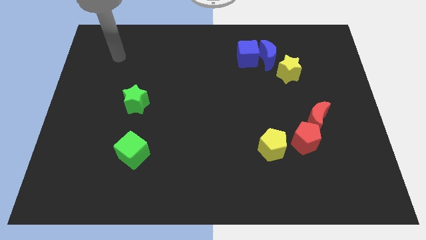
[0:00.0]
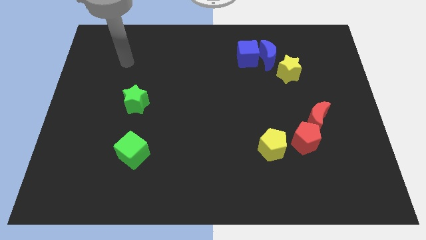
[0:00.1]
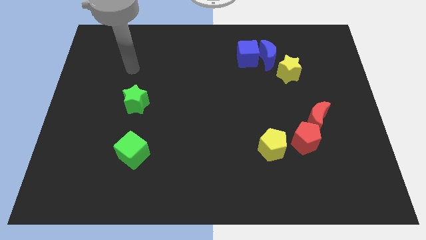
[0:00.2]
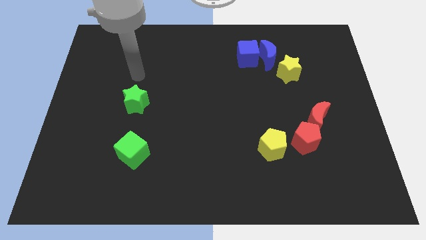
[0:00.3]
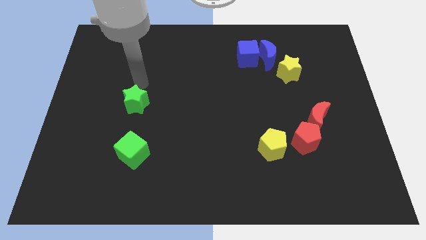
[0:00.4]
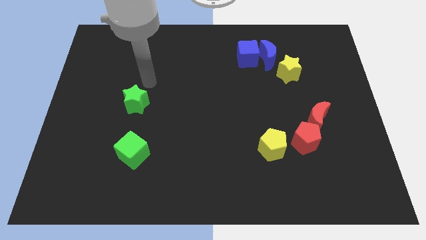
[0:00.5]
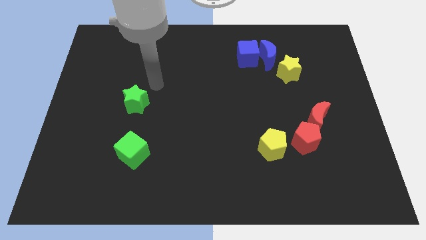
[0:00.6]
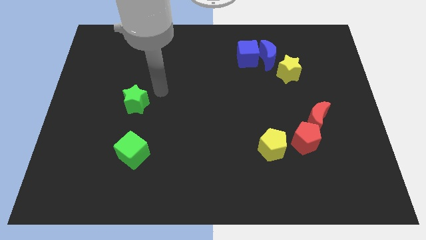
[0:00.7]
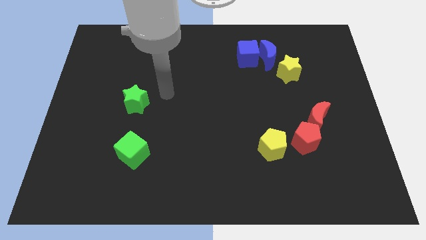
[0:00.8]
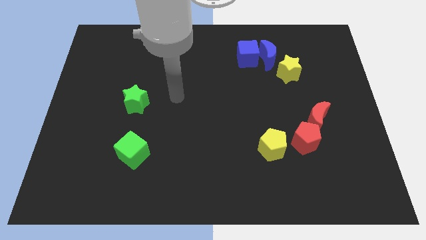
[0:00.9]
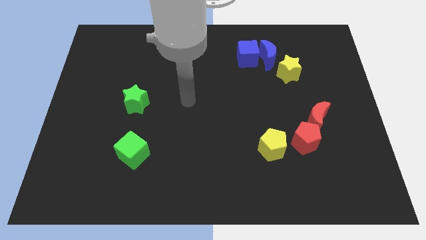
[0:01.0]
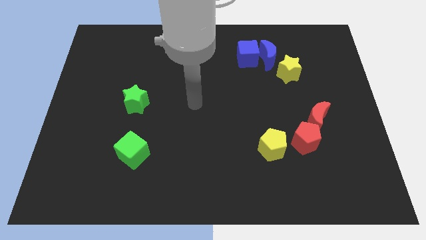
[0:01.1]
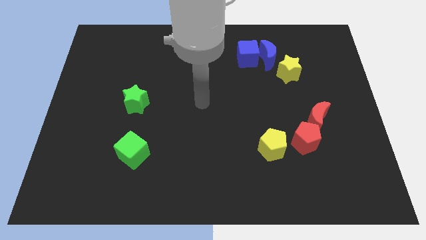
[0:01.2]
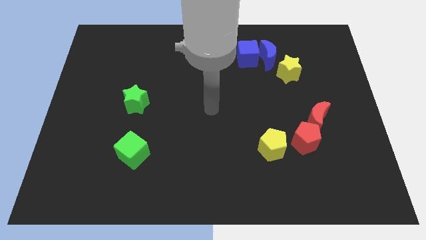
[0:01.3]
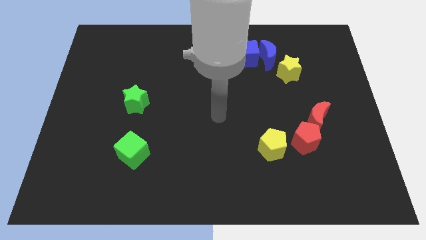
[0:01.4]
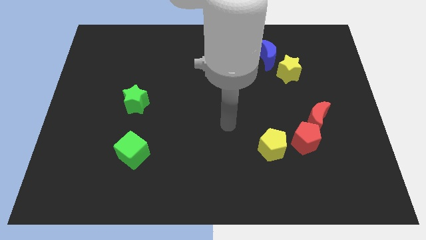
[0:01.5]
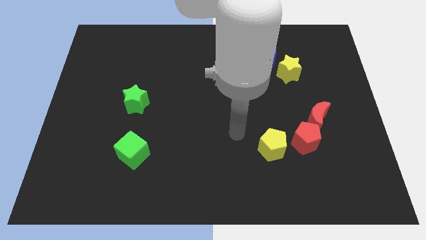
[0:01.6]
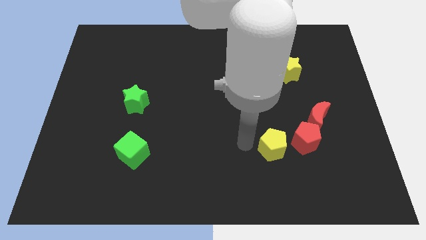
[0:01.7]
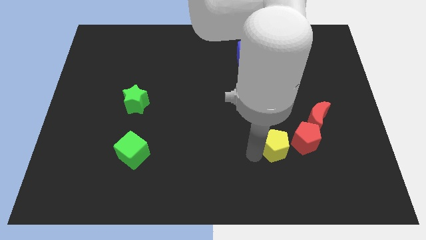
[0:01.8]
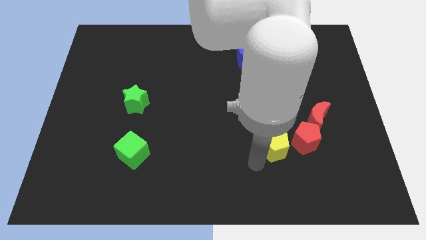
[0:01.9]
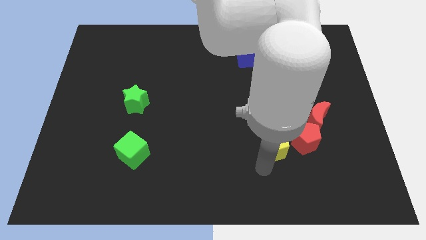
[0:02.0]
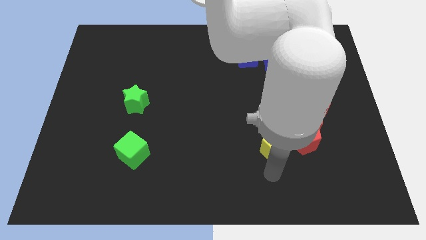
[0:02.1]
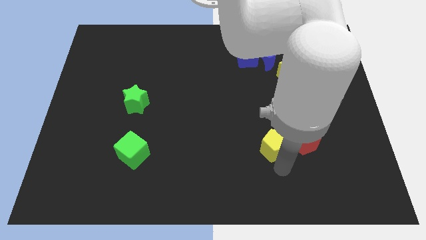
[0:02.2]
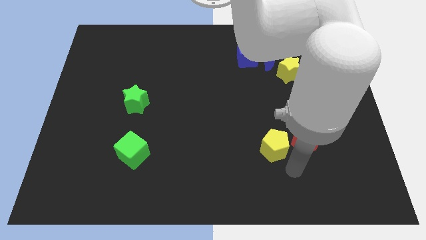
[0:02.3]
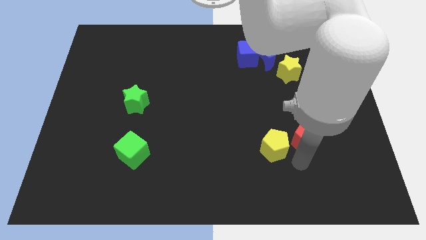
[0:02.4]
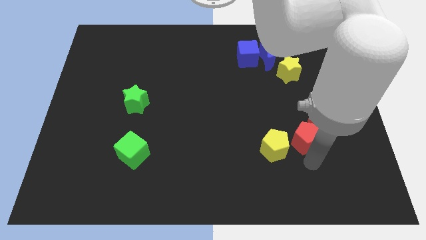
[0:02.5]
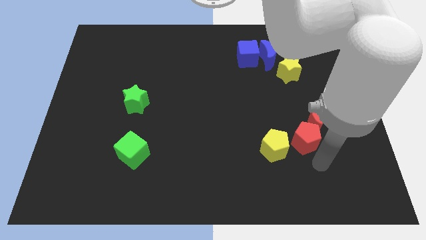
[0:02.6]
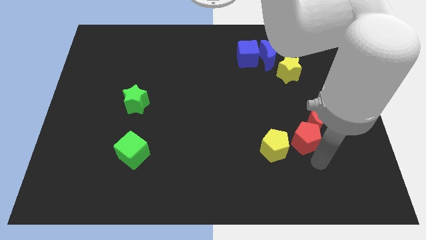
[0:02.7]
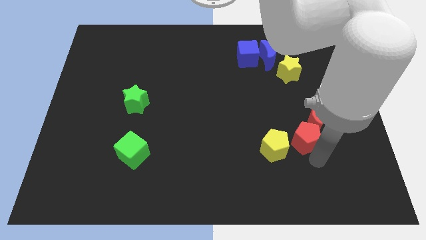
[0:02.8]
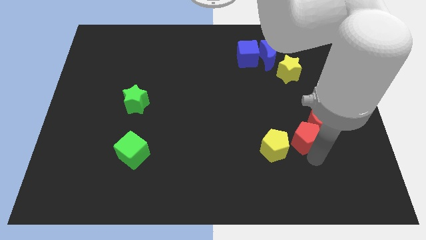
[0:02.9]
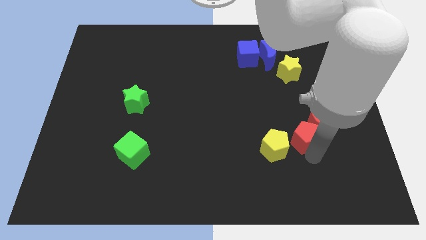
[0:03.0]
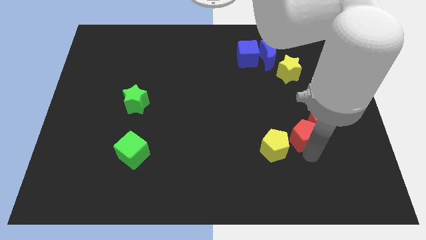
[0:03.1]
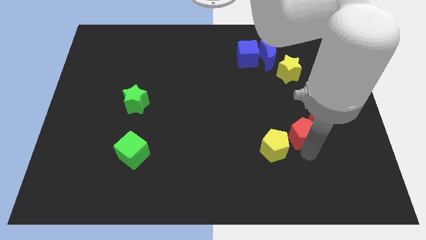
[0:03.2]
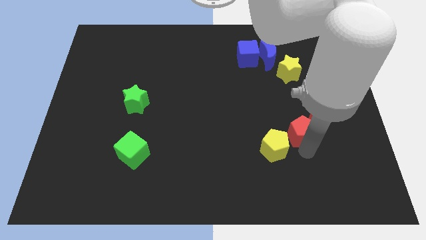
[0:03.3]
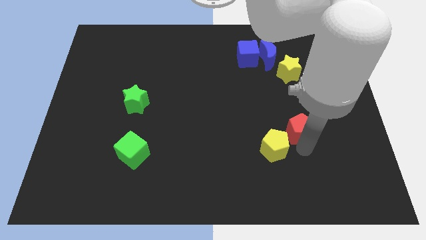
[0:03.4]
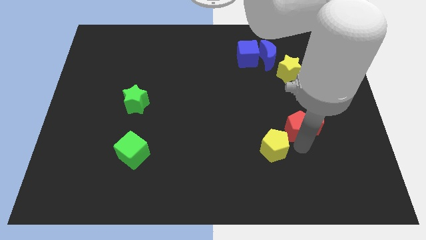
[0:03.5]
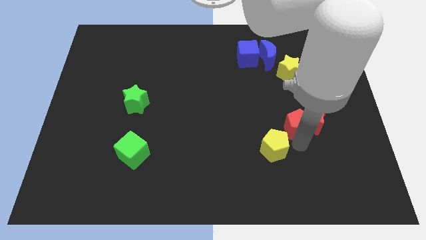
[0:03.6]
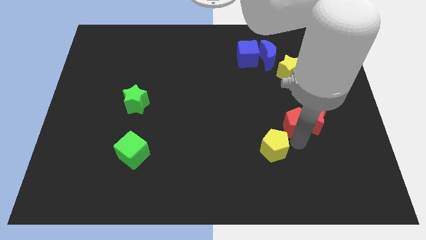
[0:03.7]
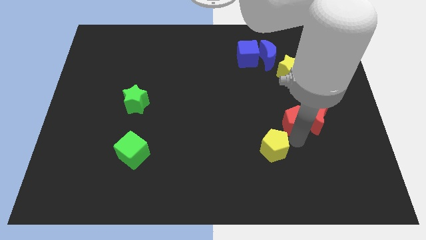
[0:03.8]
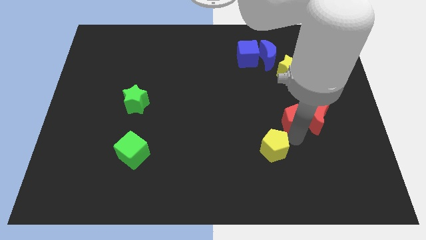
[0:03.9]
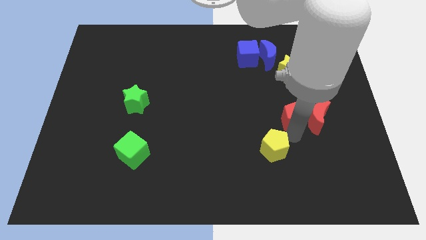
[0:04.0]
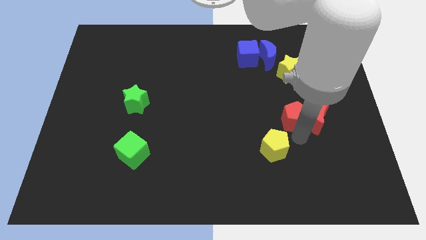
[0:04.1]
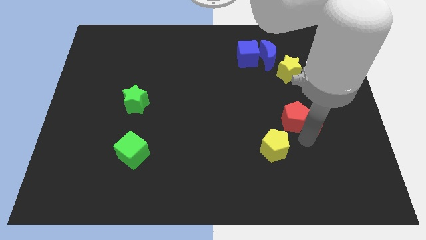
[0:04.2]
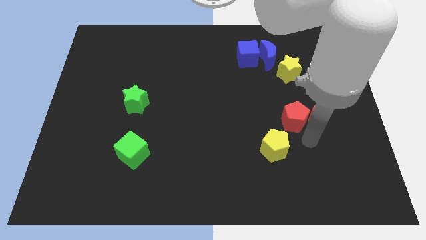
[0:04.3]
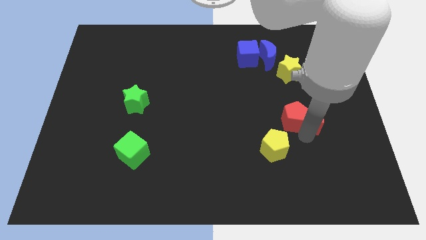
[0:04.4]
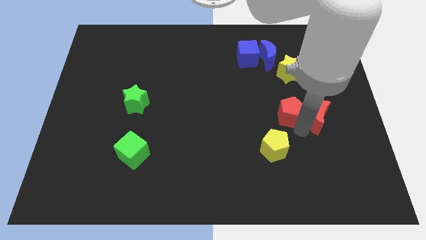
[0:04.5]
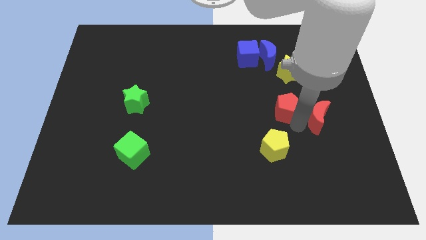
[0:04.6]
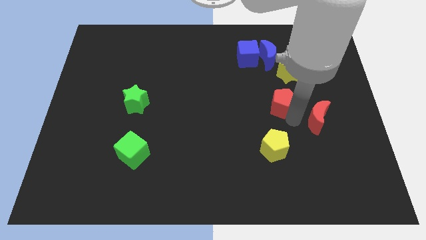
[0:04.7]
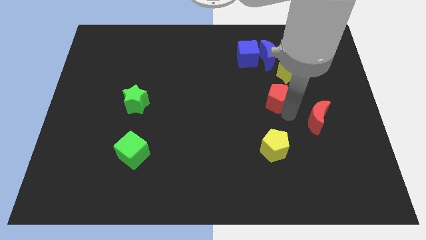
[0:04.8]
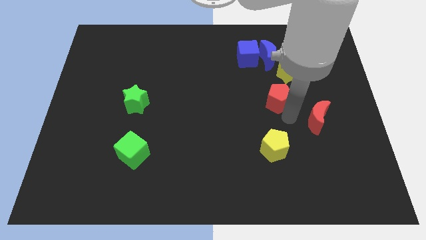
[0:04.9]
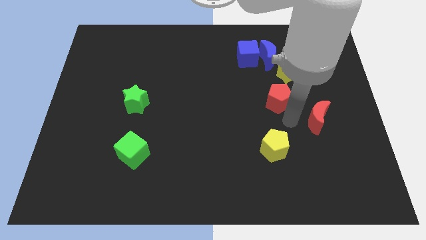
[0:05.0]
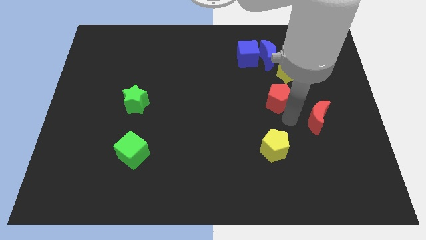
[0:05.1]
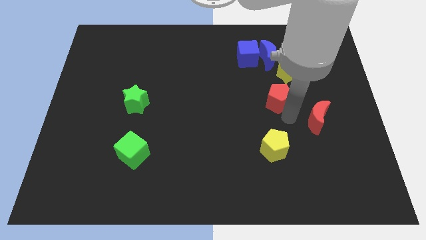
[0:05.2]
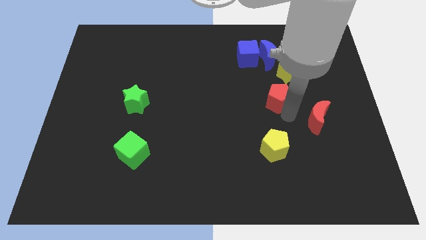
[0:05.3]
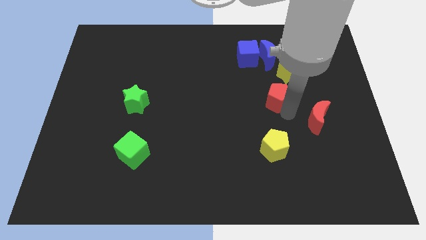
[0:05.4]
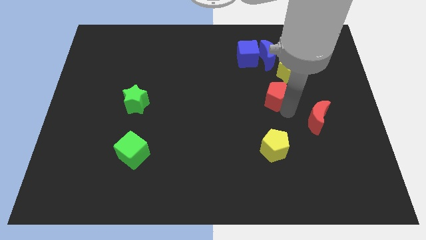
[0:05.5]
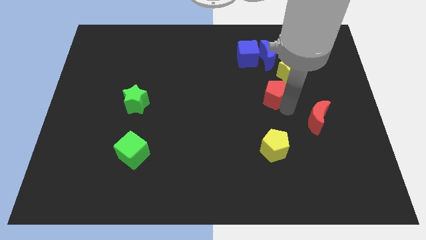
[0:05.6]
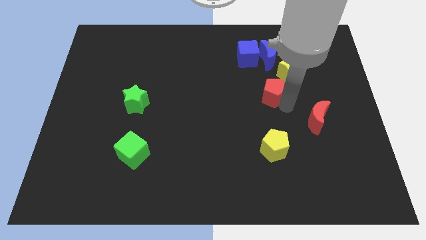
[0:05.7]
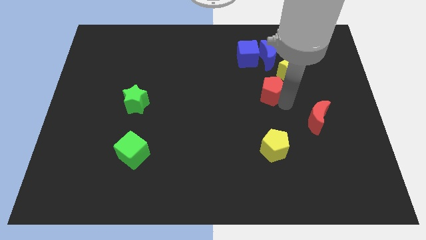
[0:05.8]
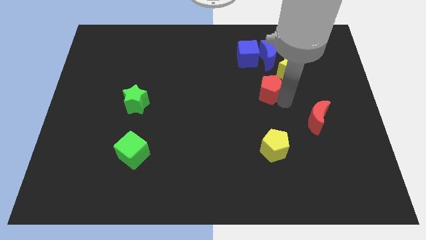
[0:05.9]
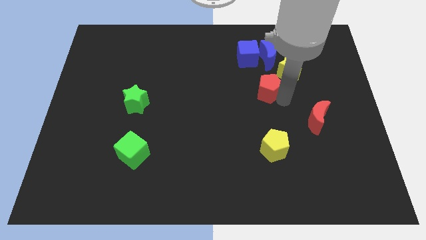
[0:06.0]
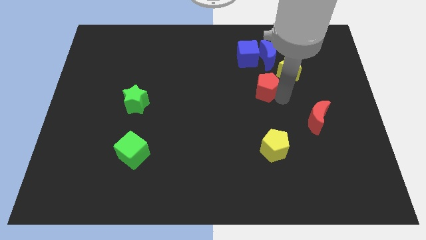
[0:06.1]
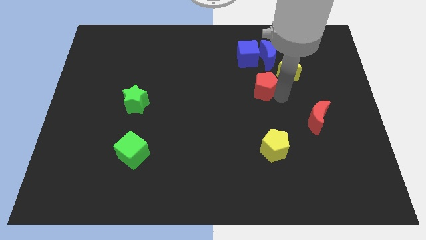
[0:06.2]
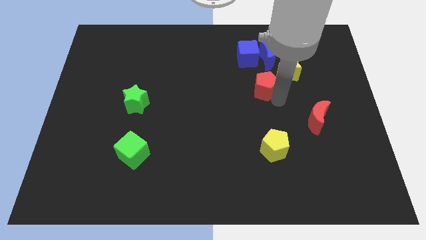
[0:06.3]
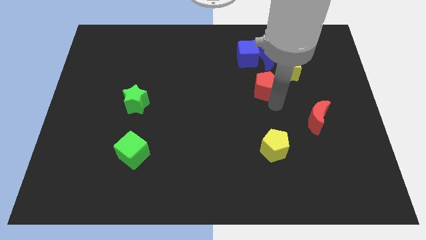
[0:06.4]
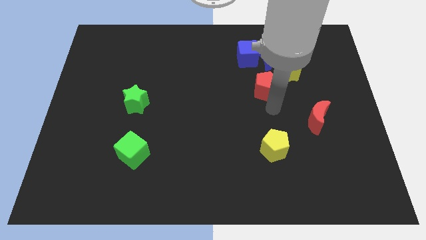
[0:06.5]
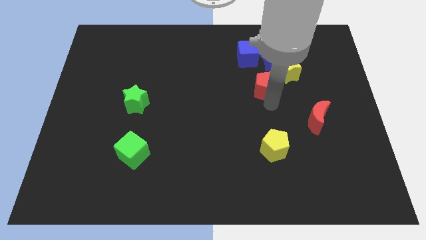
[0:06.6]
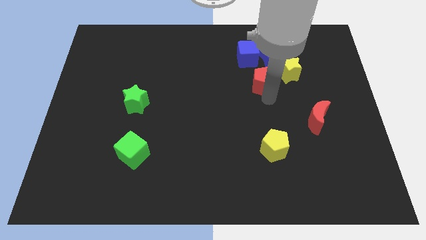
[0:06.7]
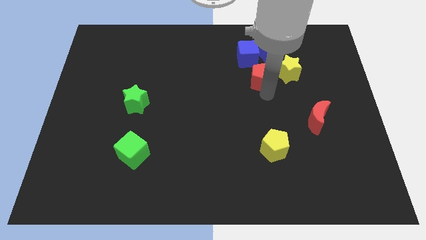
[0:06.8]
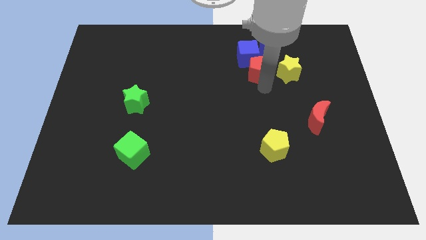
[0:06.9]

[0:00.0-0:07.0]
slide the red pentagon close to the blue cube
